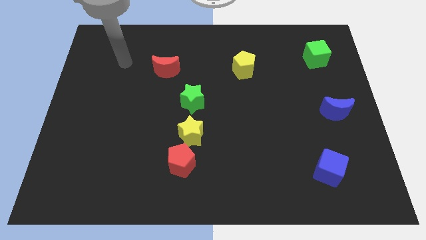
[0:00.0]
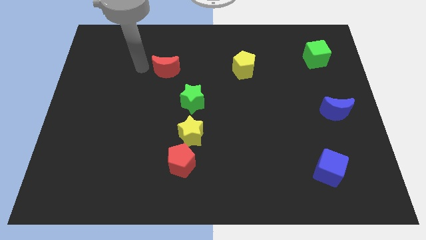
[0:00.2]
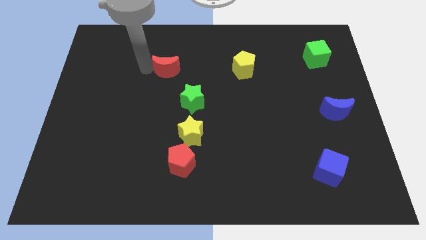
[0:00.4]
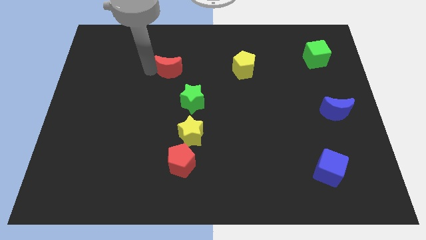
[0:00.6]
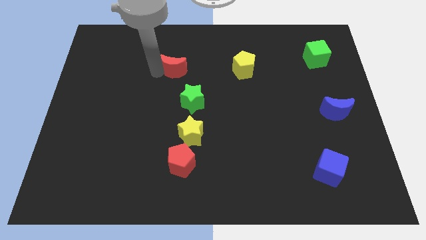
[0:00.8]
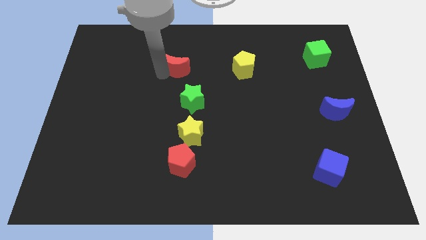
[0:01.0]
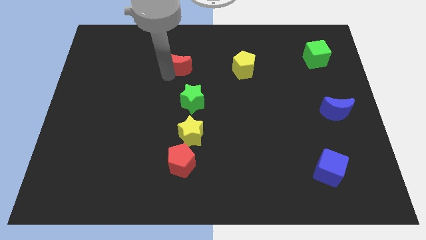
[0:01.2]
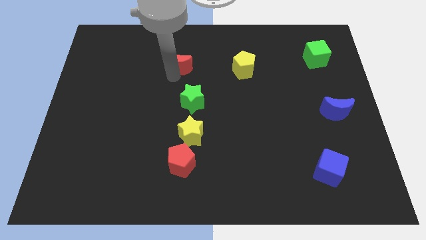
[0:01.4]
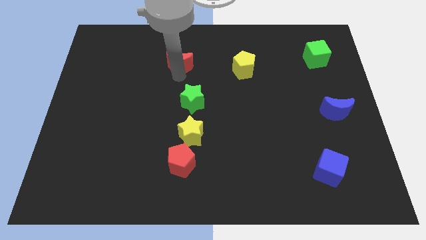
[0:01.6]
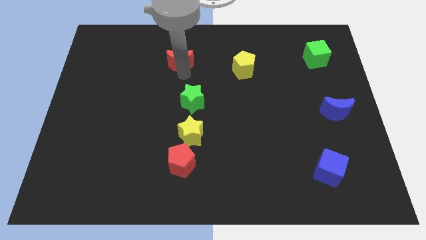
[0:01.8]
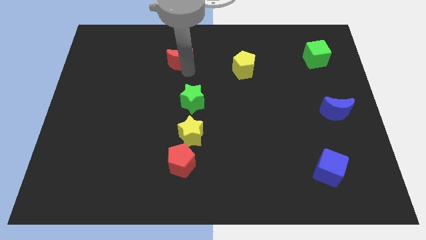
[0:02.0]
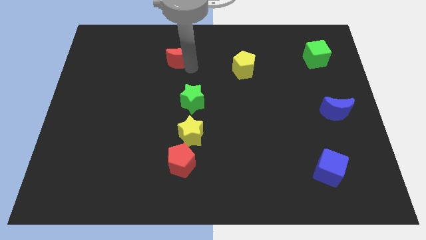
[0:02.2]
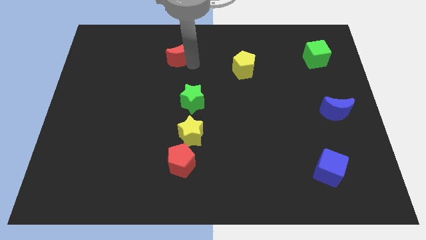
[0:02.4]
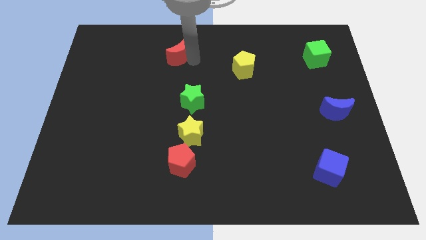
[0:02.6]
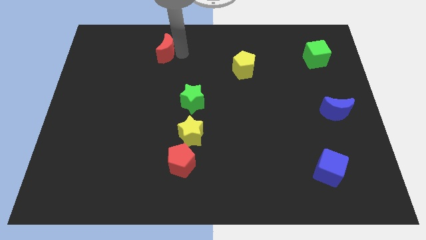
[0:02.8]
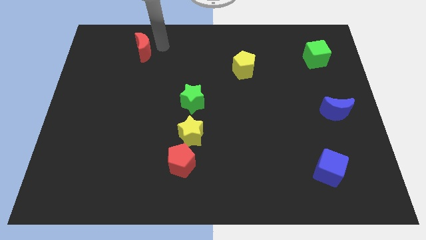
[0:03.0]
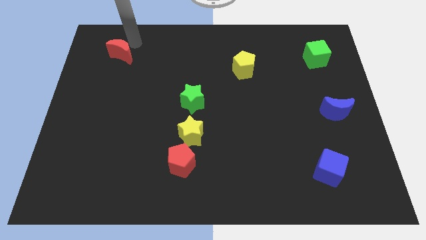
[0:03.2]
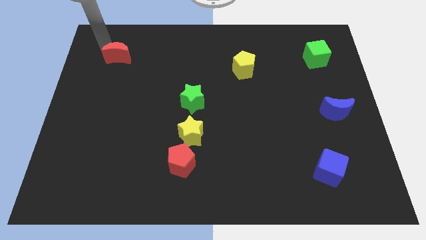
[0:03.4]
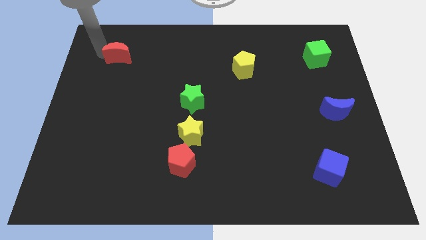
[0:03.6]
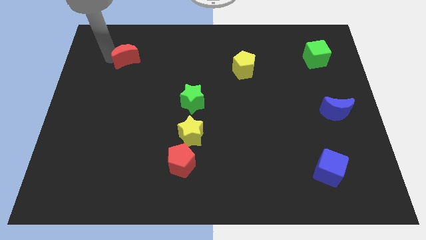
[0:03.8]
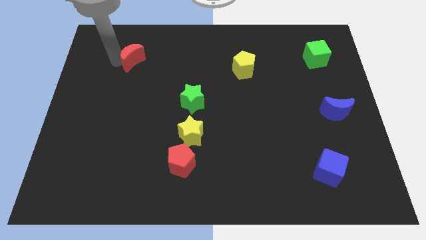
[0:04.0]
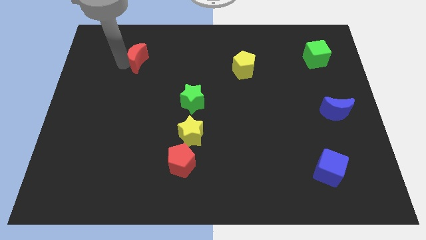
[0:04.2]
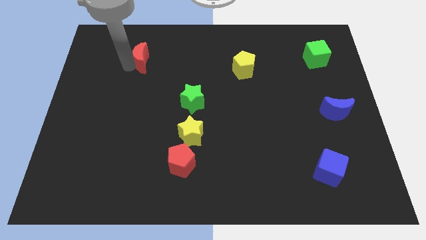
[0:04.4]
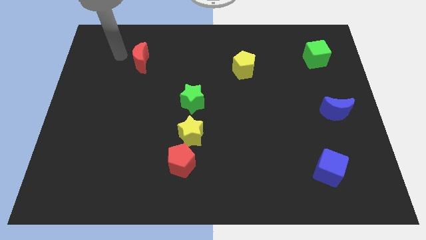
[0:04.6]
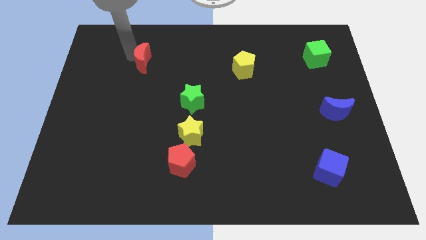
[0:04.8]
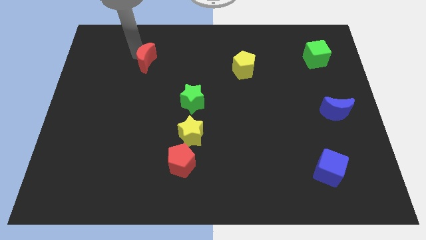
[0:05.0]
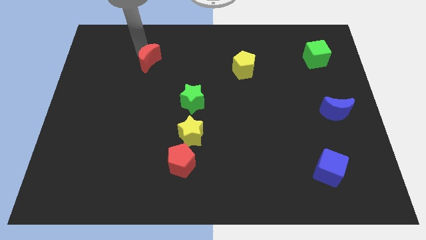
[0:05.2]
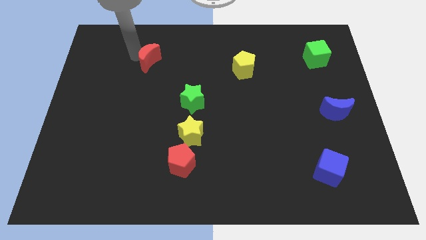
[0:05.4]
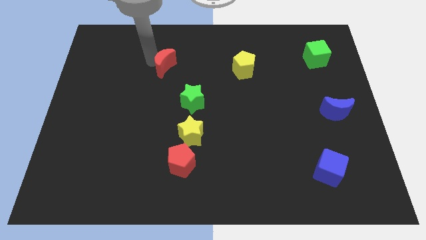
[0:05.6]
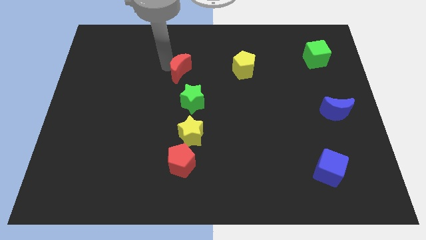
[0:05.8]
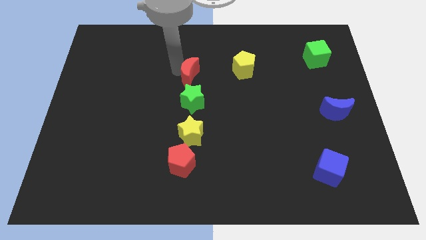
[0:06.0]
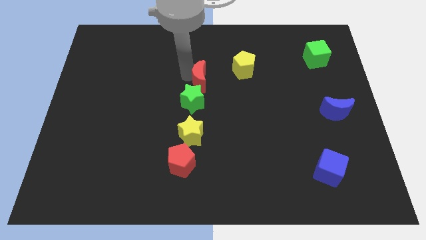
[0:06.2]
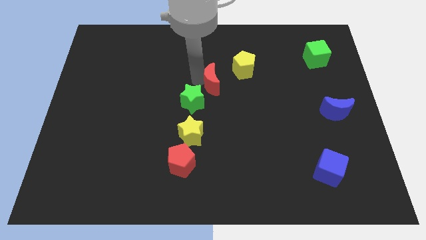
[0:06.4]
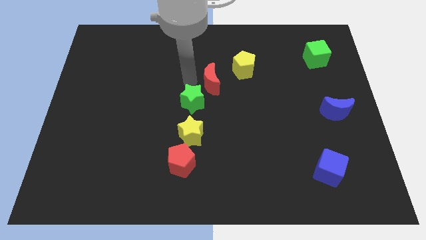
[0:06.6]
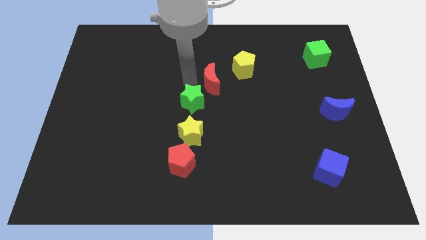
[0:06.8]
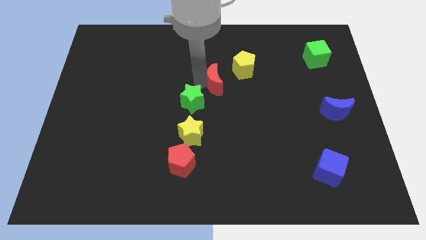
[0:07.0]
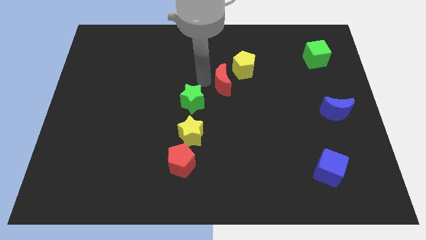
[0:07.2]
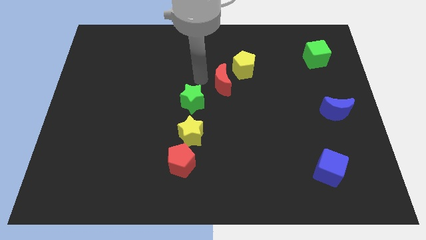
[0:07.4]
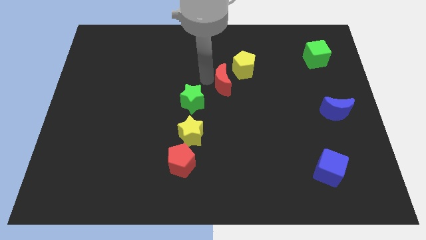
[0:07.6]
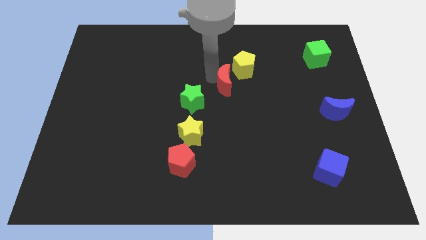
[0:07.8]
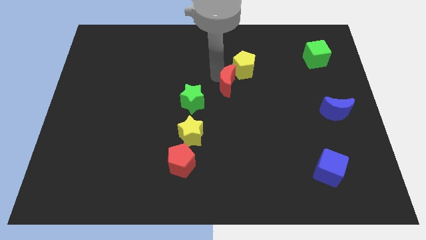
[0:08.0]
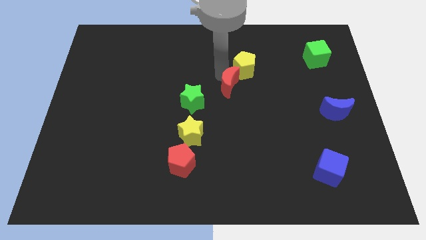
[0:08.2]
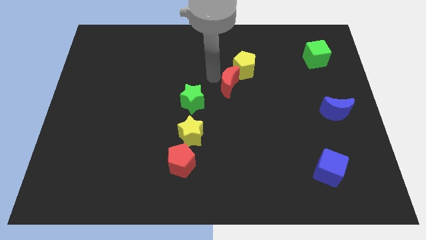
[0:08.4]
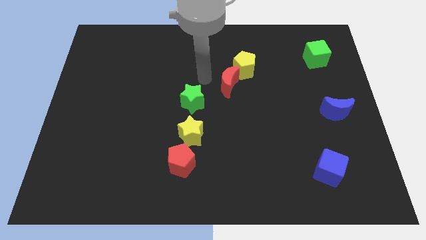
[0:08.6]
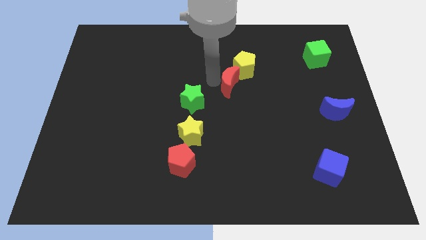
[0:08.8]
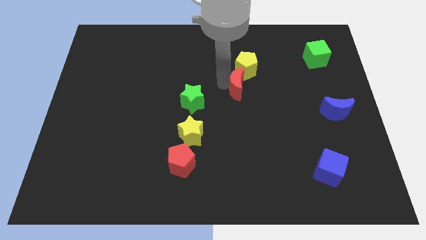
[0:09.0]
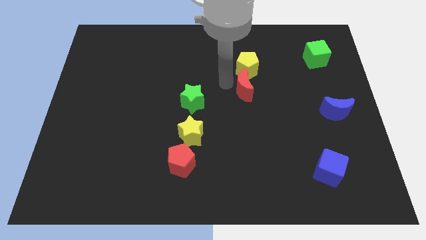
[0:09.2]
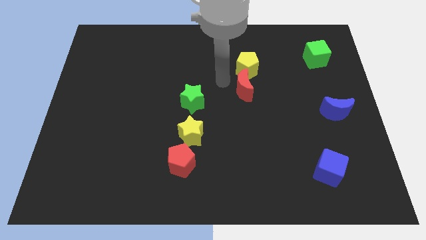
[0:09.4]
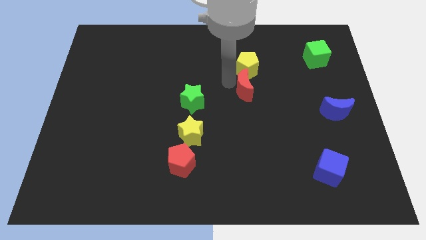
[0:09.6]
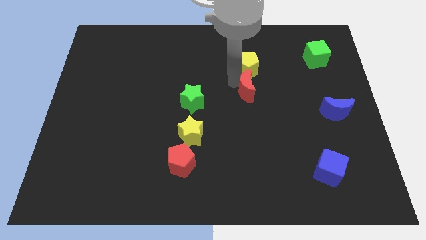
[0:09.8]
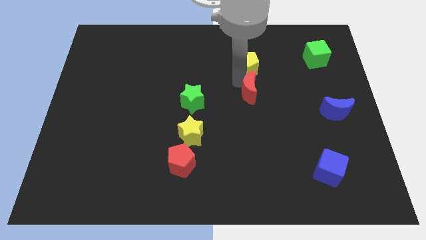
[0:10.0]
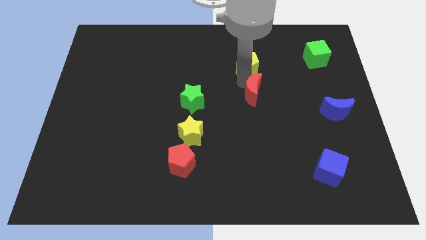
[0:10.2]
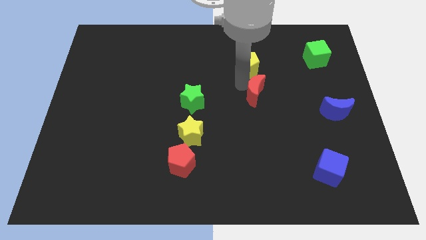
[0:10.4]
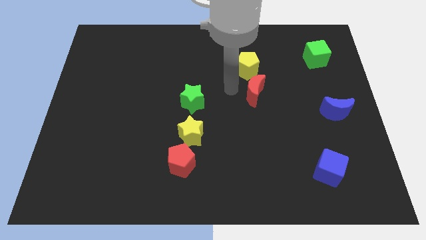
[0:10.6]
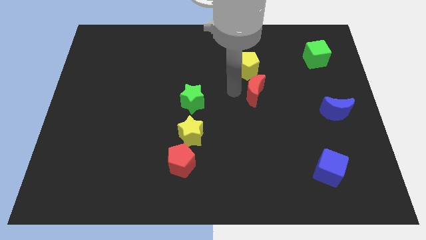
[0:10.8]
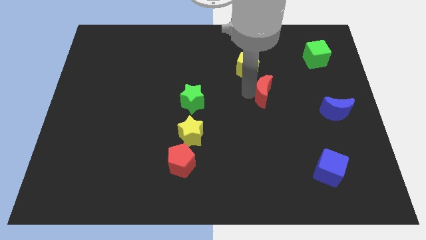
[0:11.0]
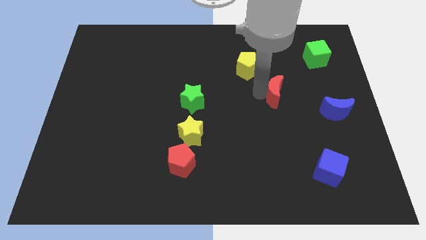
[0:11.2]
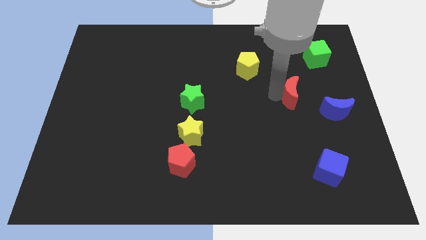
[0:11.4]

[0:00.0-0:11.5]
slide the red moon to the top left side of the blue moon

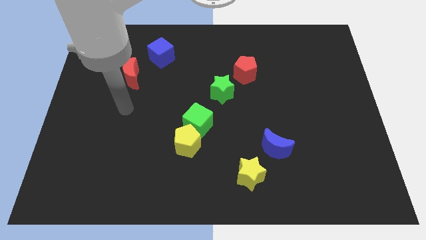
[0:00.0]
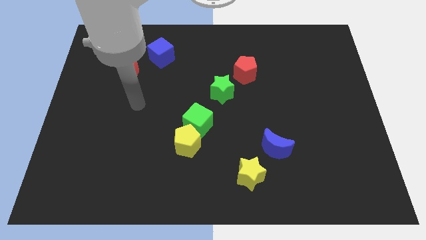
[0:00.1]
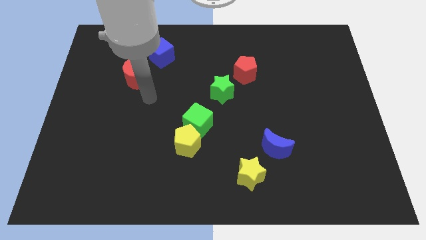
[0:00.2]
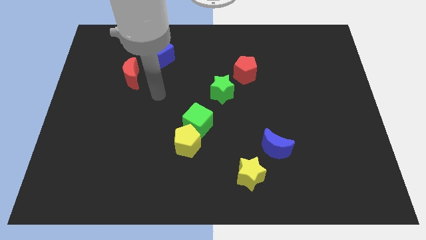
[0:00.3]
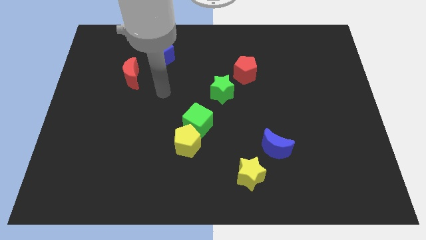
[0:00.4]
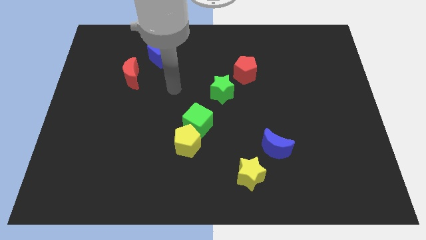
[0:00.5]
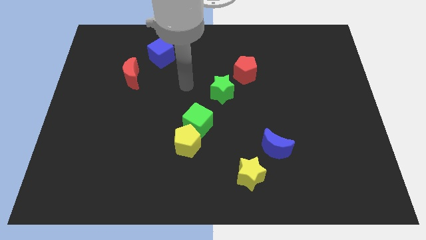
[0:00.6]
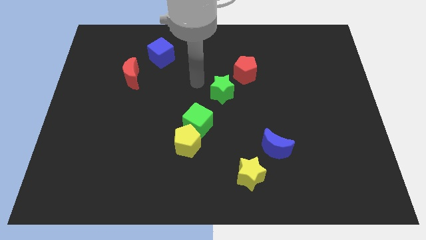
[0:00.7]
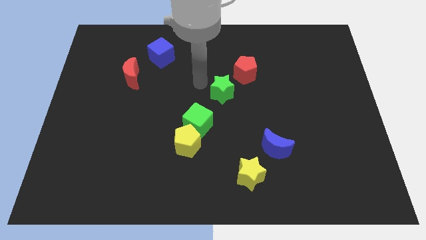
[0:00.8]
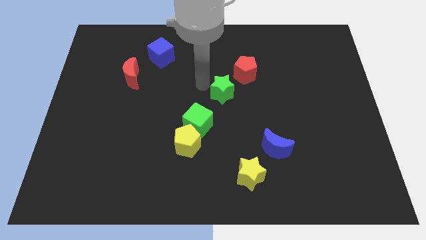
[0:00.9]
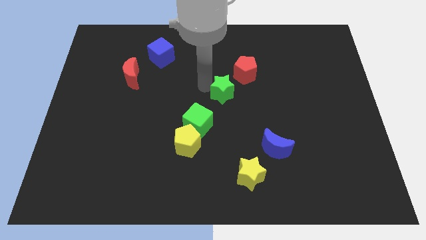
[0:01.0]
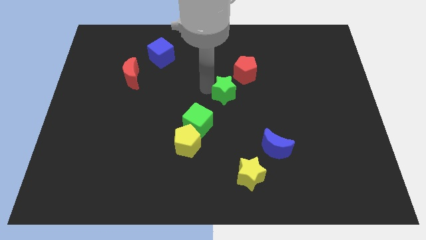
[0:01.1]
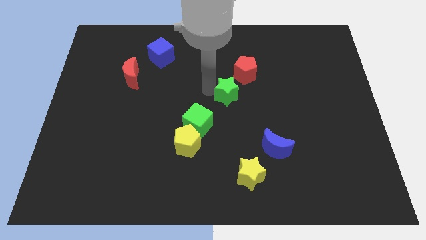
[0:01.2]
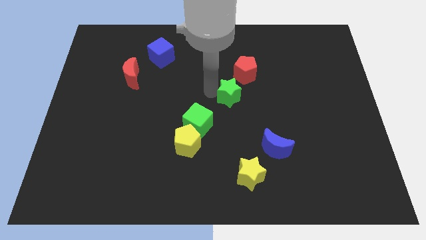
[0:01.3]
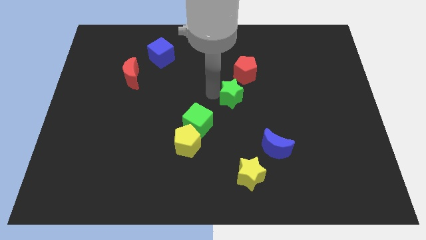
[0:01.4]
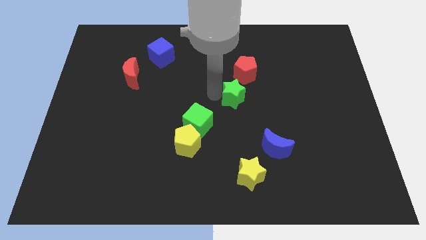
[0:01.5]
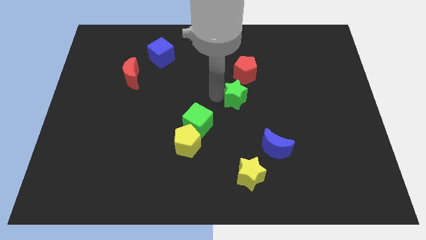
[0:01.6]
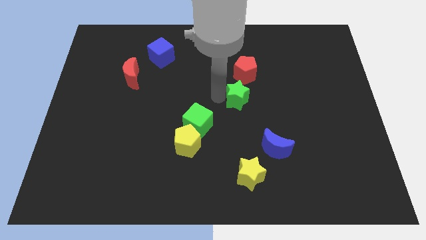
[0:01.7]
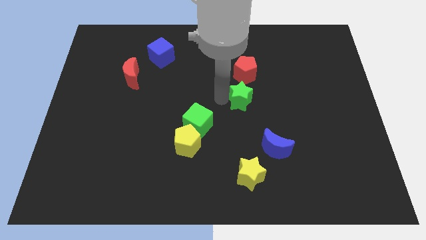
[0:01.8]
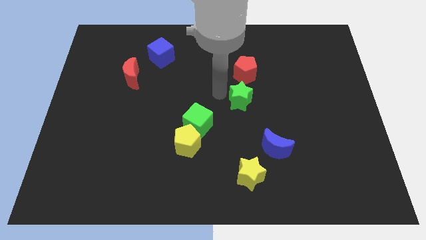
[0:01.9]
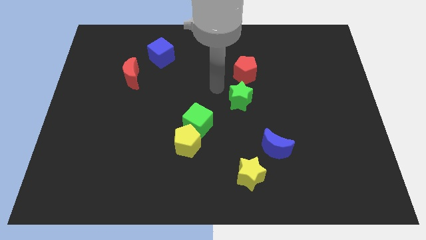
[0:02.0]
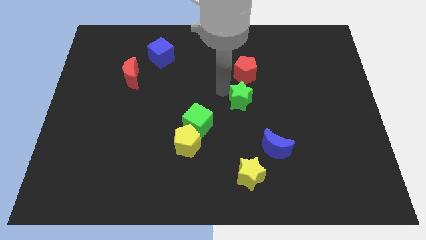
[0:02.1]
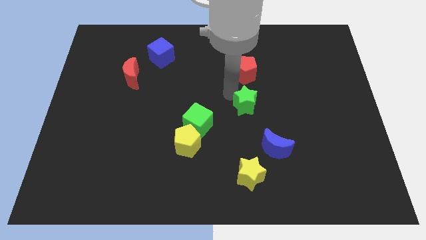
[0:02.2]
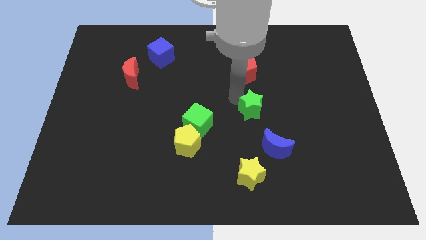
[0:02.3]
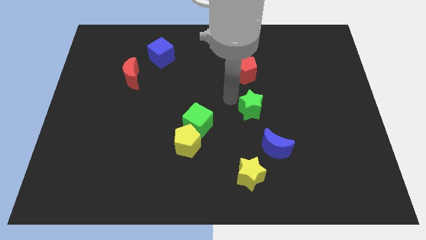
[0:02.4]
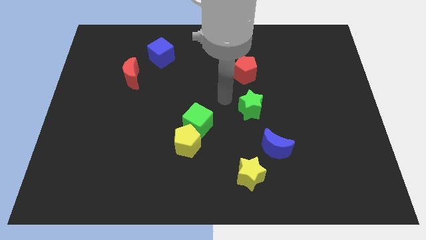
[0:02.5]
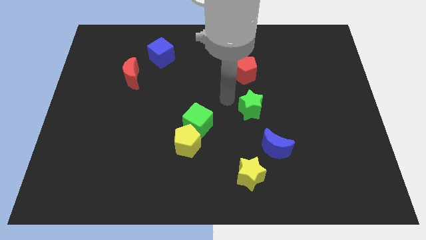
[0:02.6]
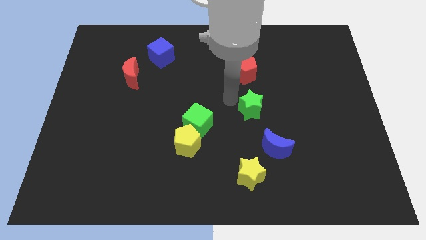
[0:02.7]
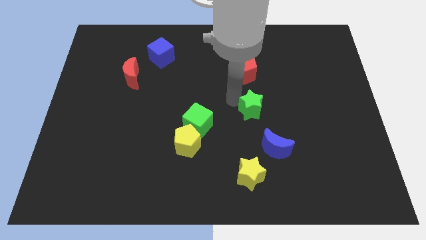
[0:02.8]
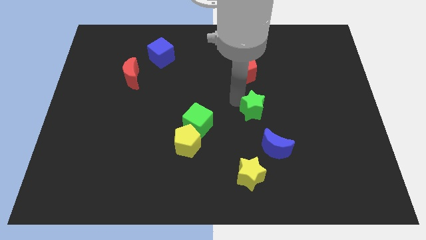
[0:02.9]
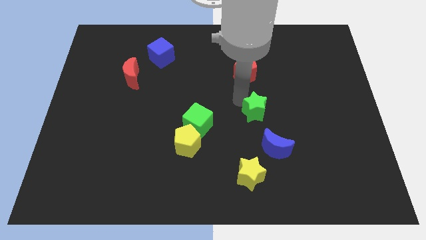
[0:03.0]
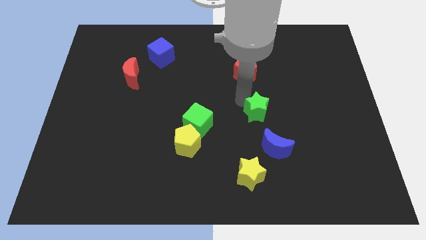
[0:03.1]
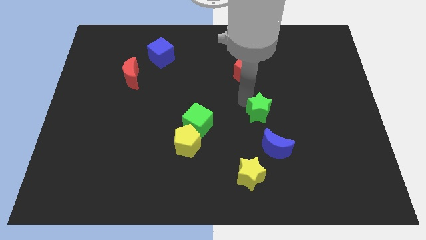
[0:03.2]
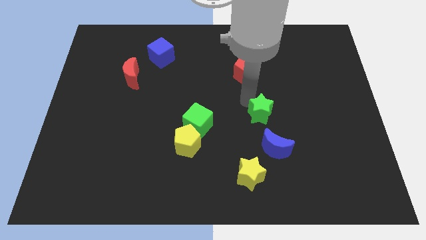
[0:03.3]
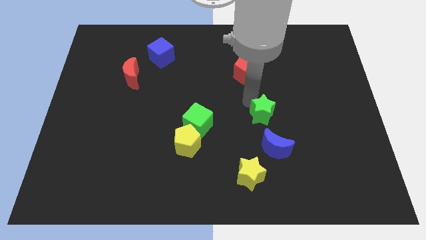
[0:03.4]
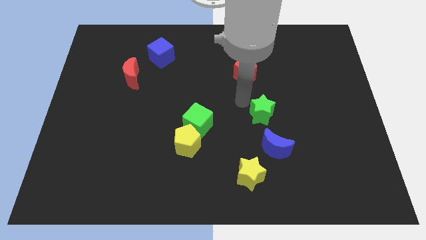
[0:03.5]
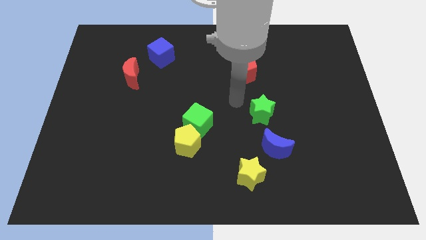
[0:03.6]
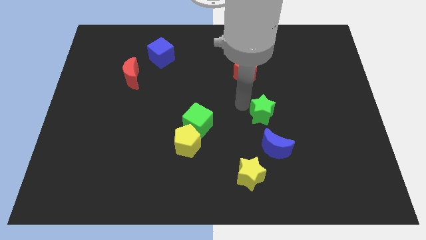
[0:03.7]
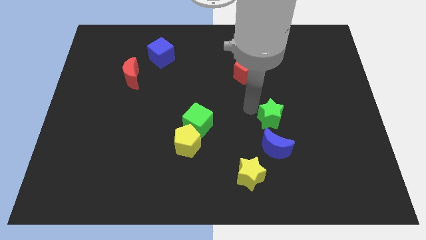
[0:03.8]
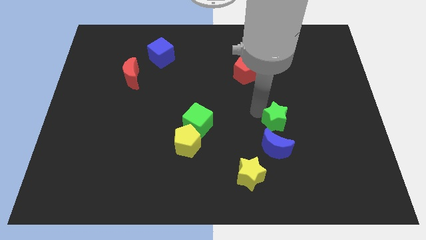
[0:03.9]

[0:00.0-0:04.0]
move the green star to the top right side of the blue moon
